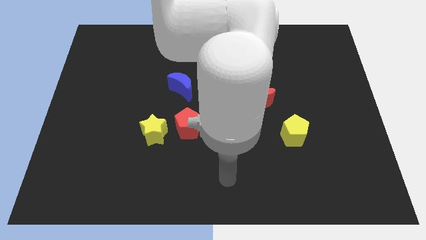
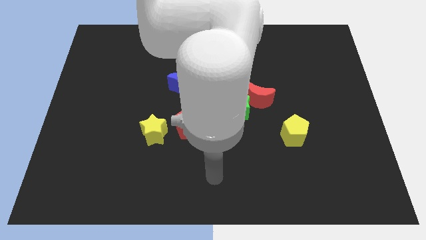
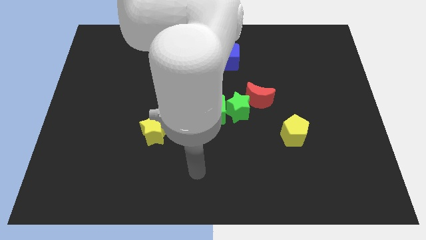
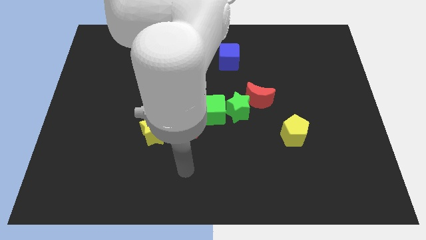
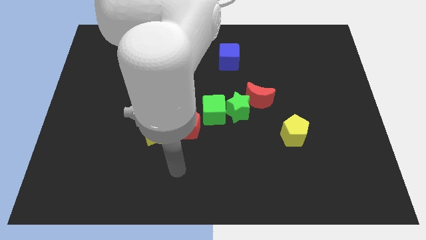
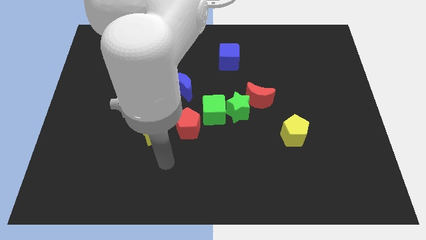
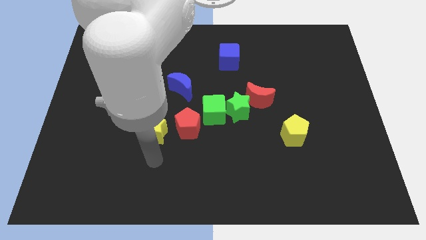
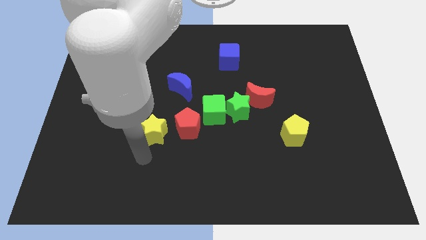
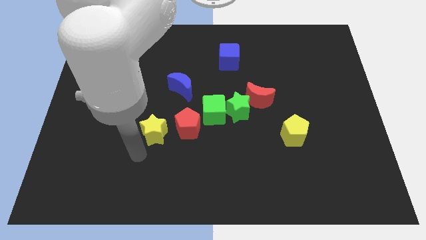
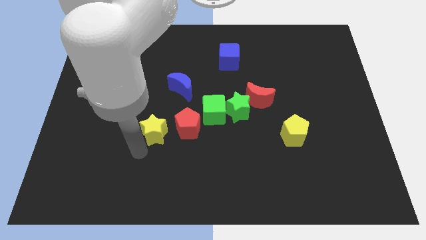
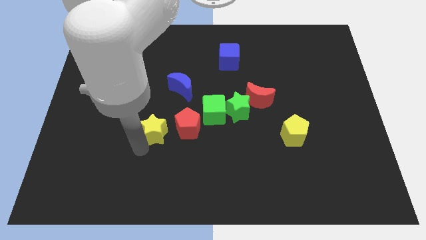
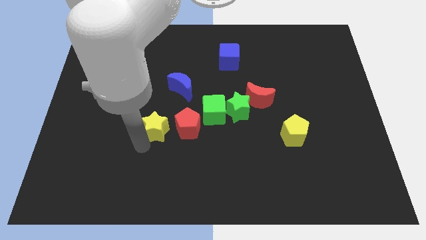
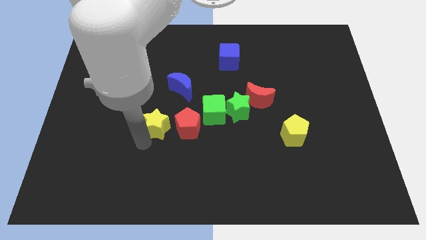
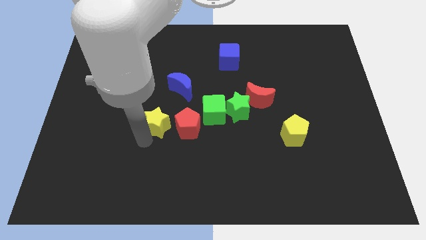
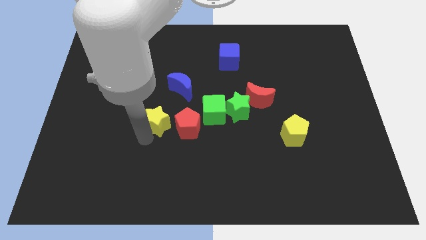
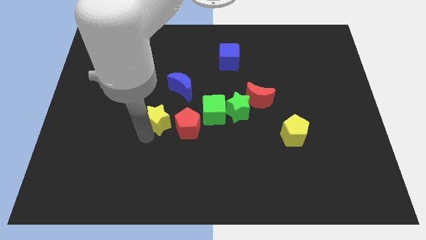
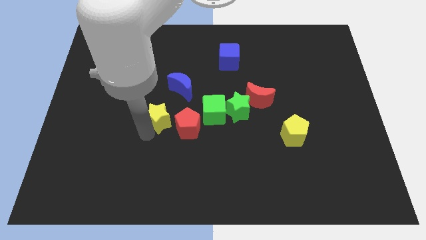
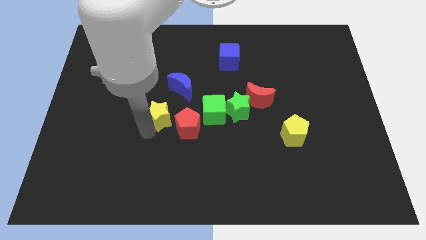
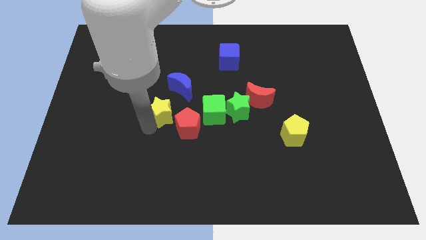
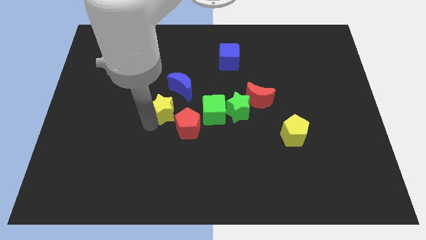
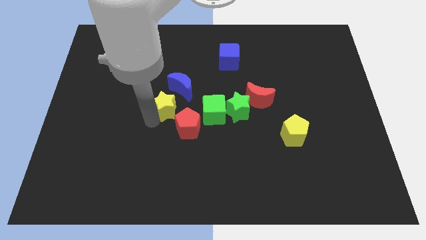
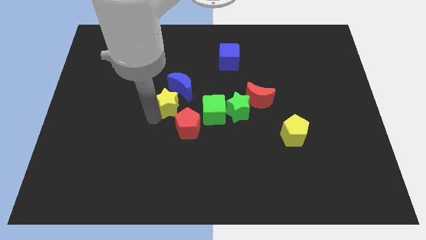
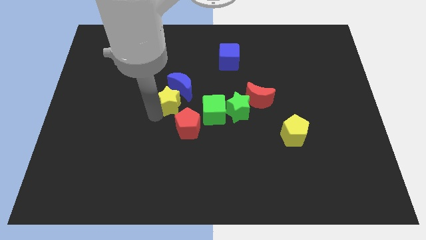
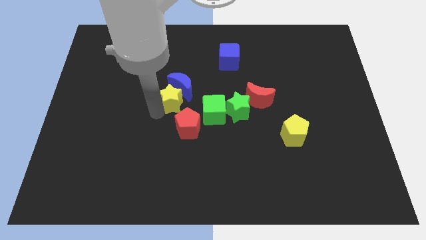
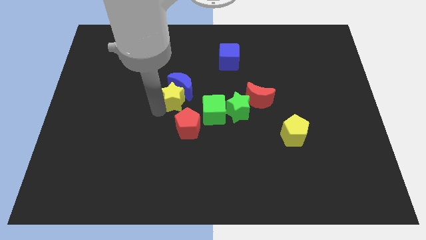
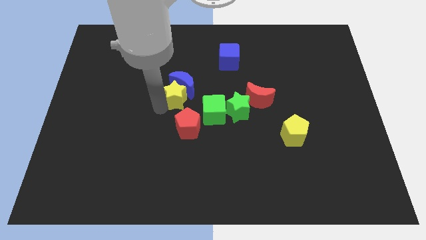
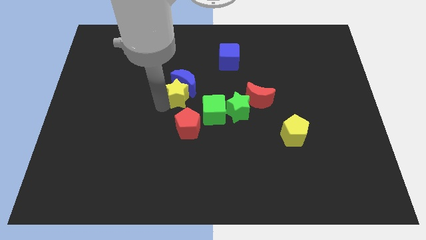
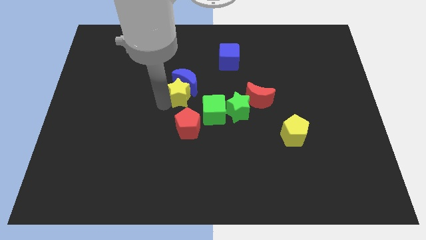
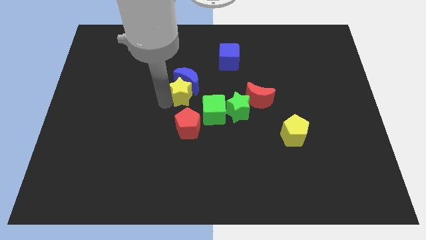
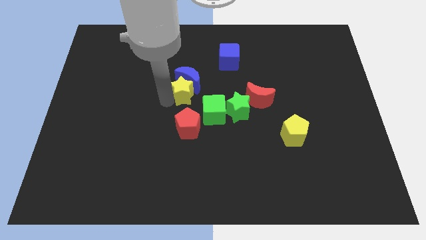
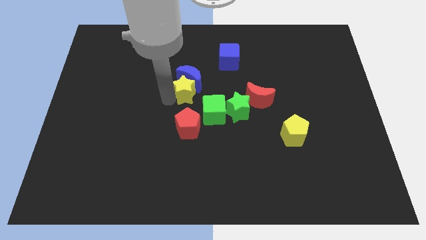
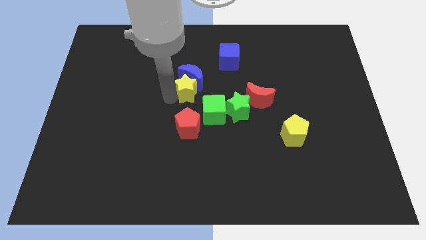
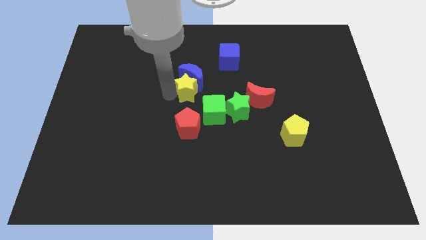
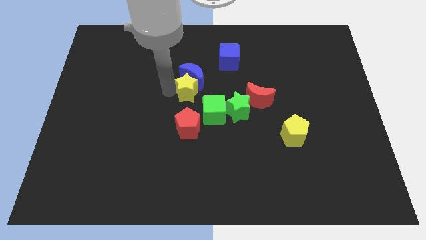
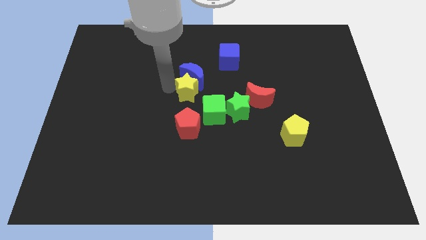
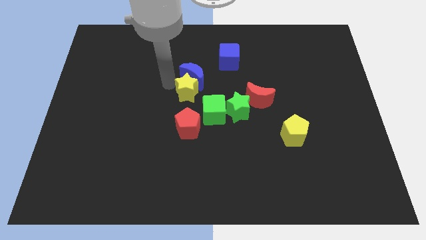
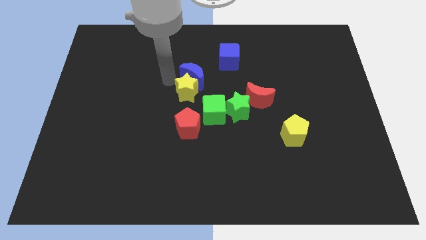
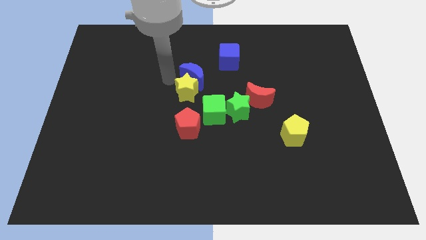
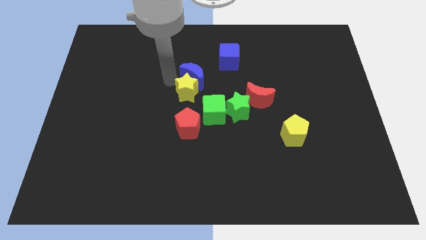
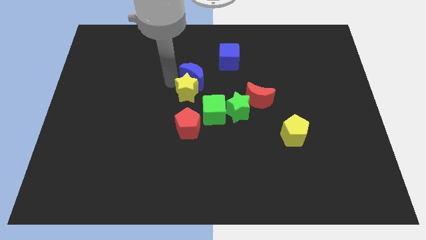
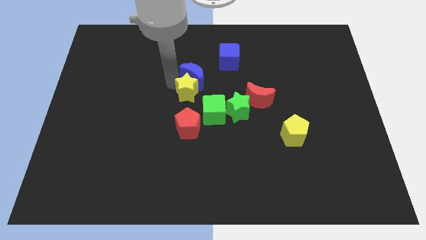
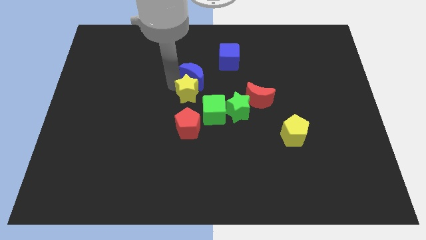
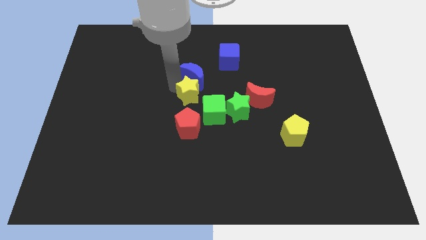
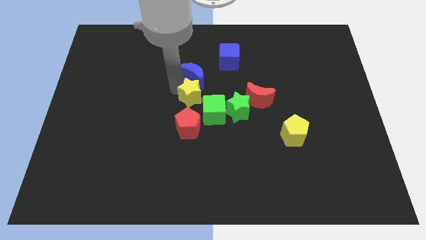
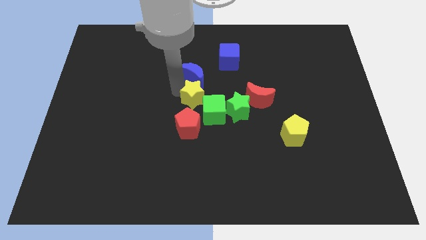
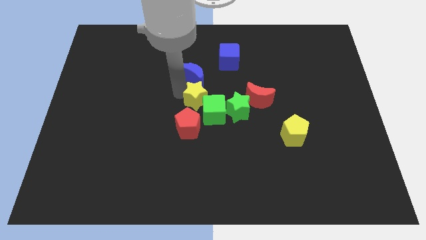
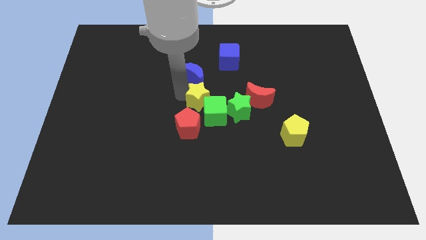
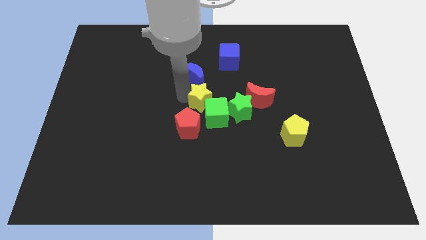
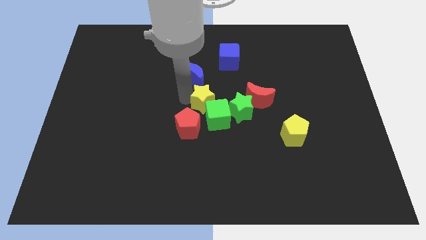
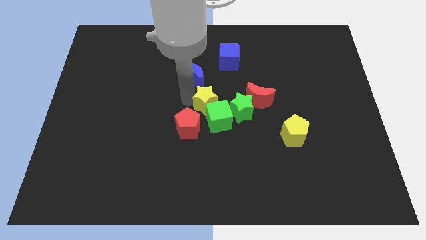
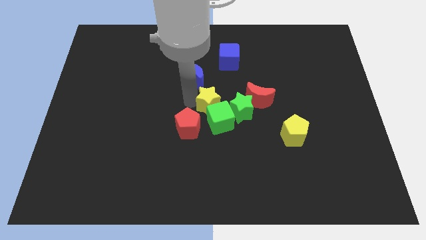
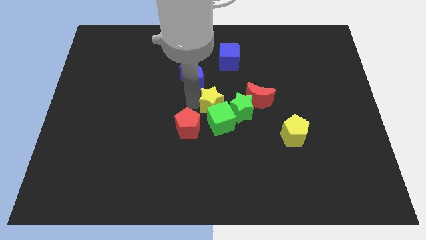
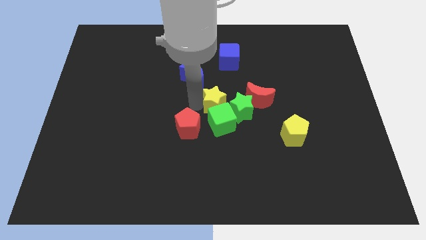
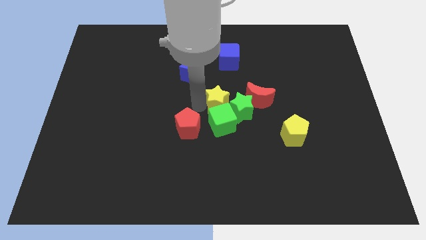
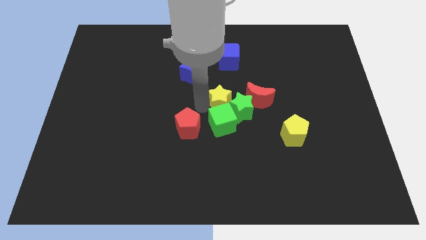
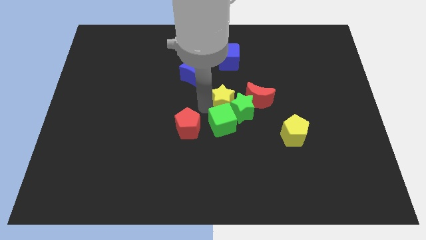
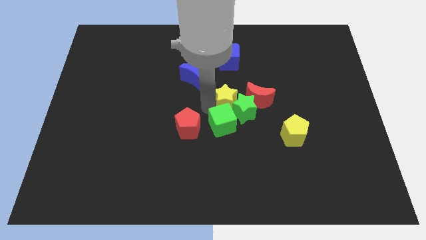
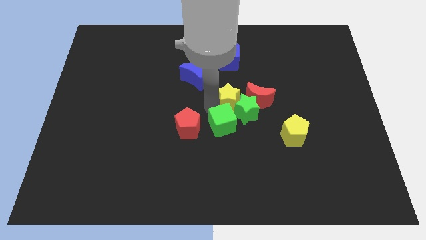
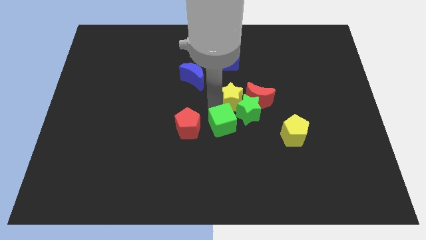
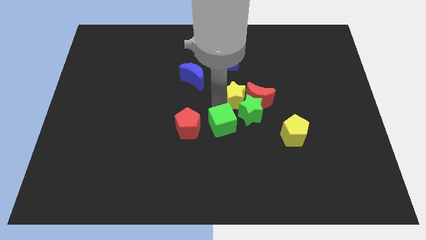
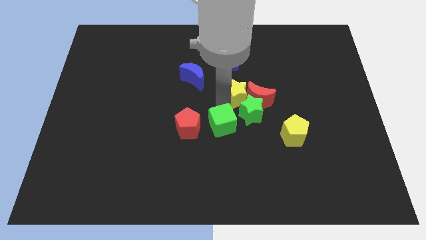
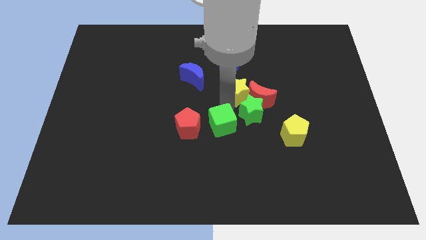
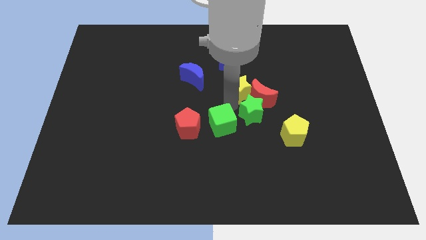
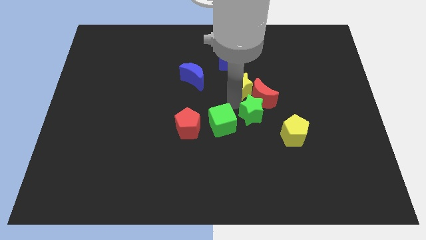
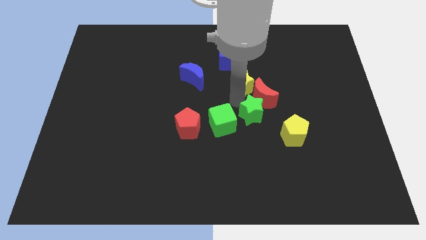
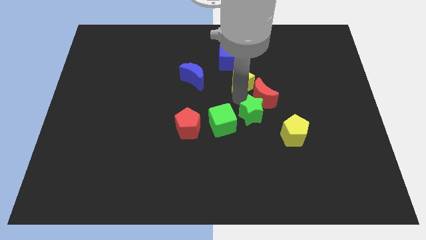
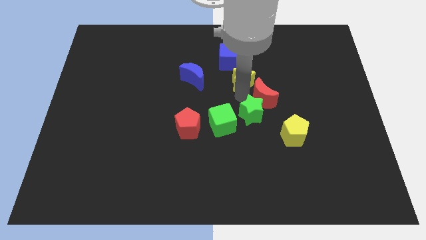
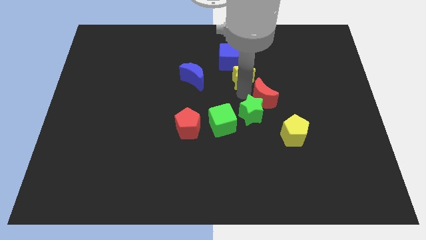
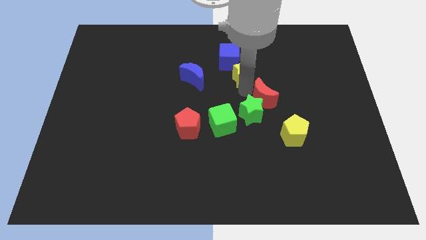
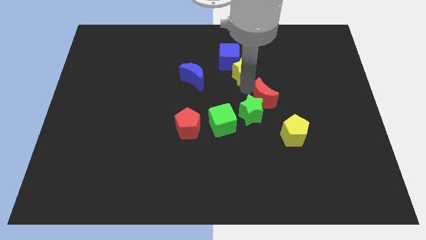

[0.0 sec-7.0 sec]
put the yellow star towards the blue cube

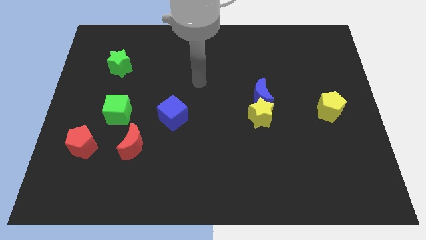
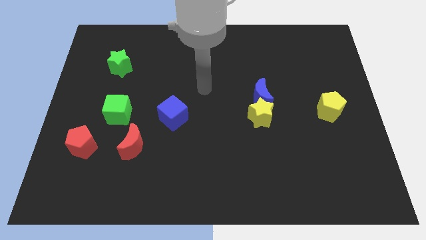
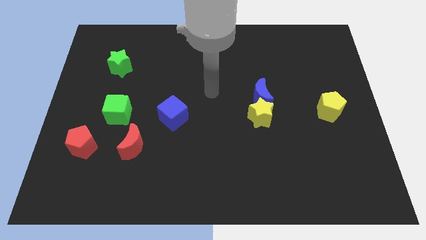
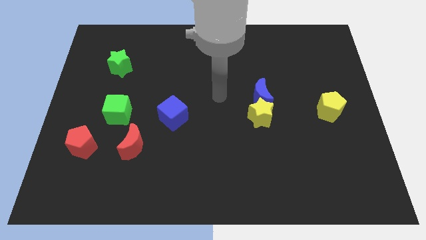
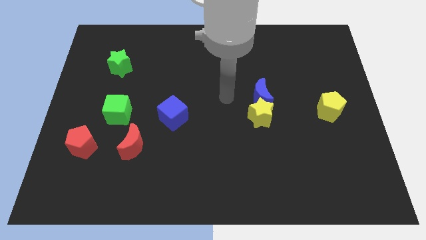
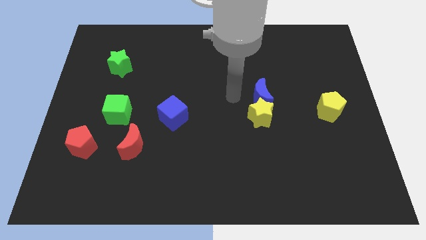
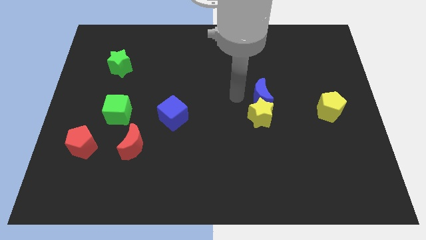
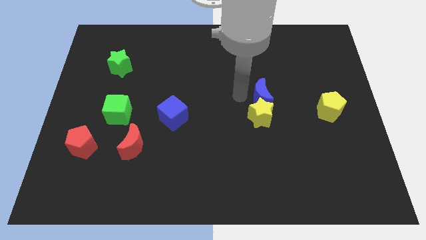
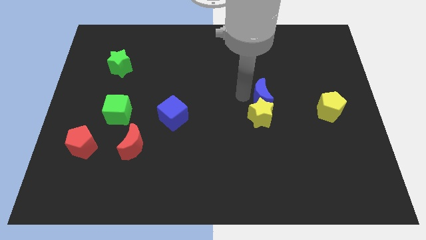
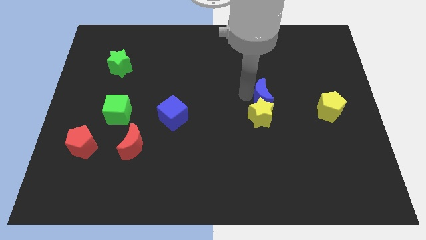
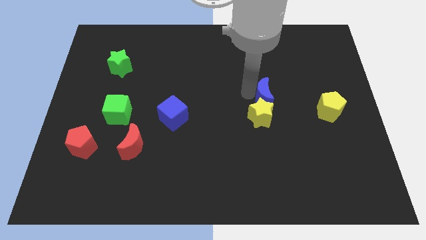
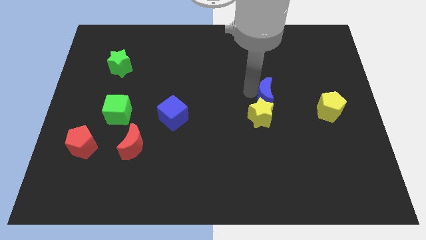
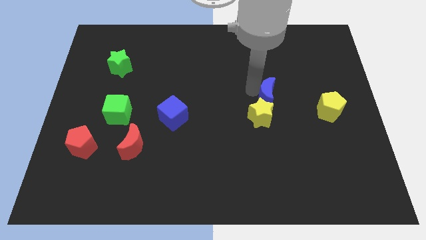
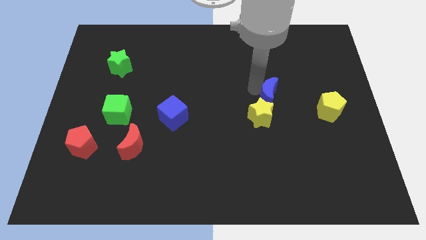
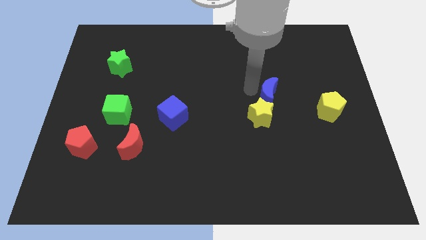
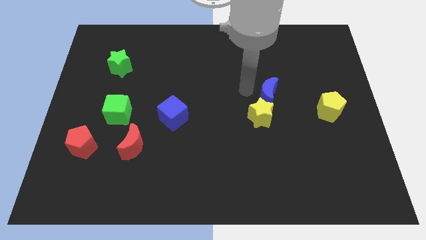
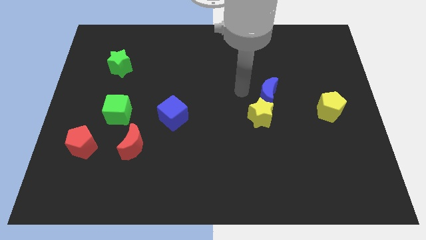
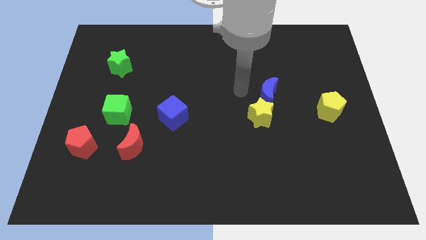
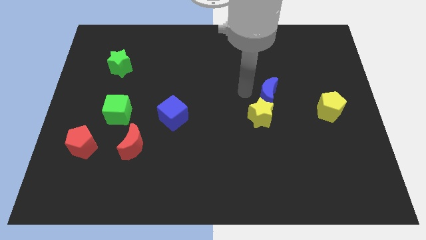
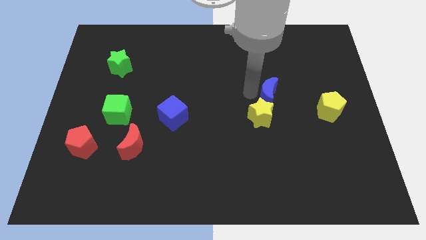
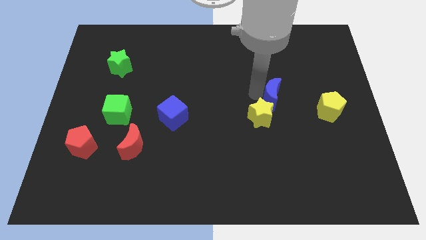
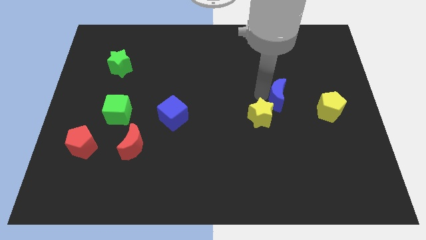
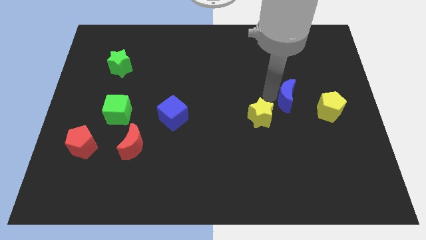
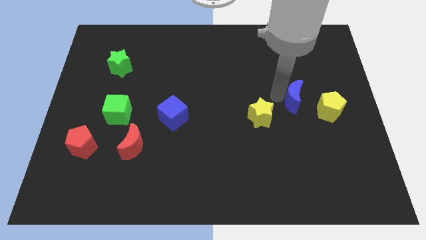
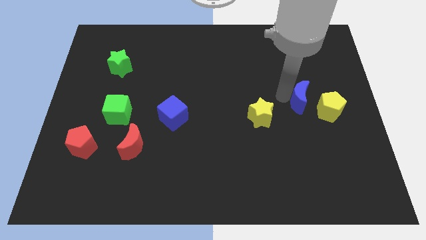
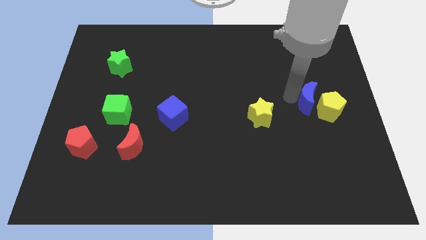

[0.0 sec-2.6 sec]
slide the blue moon next to the yellow pentagon
